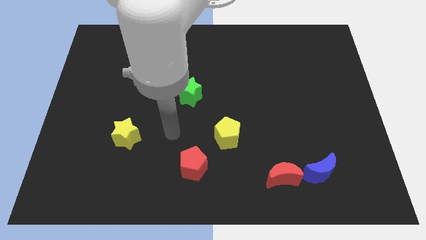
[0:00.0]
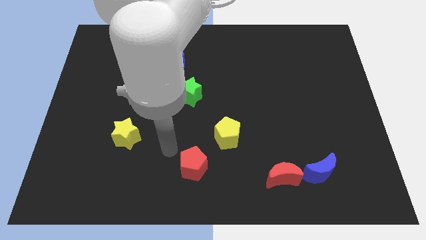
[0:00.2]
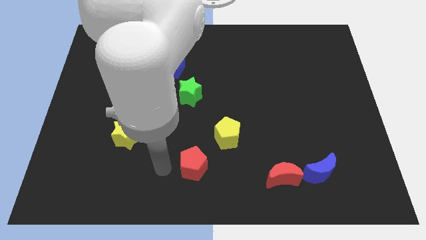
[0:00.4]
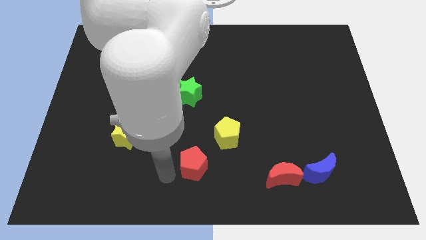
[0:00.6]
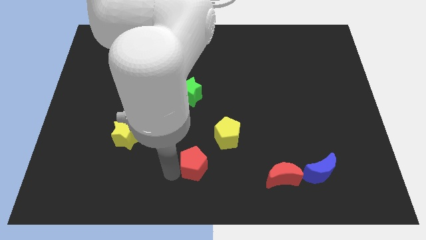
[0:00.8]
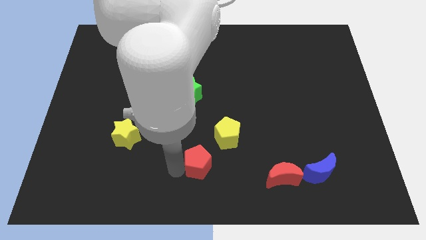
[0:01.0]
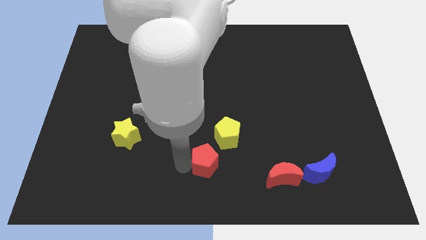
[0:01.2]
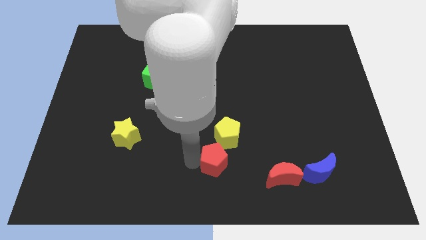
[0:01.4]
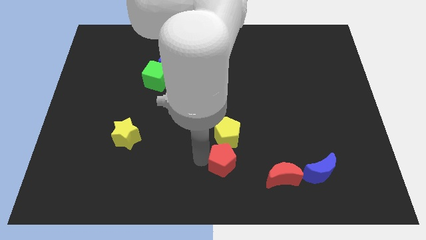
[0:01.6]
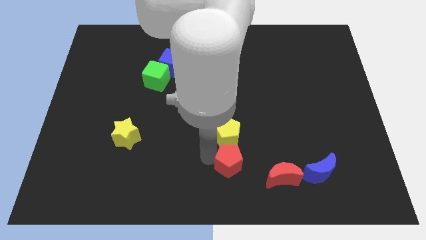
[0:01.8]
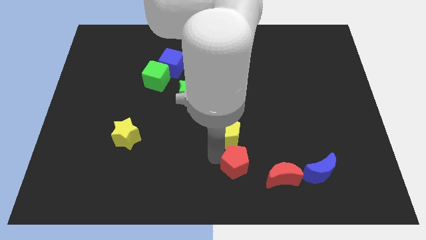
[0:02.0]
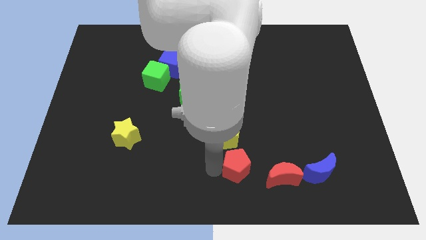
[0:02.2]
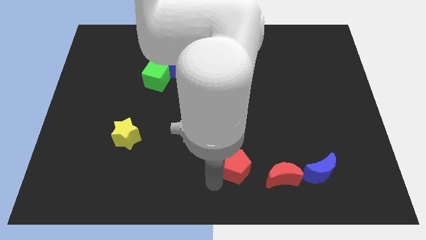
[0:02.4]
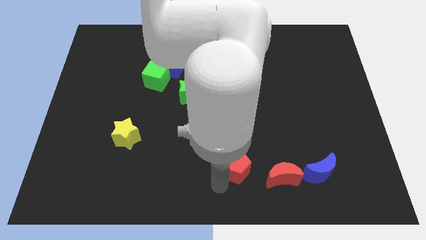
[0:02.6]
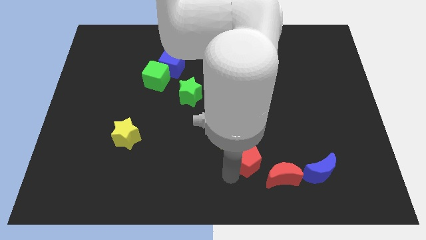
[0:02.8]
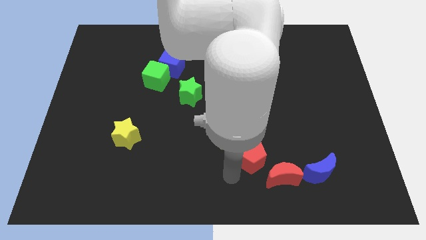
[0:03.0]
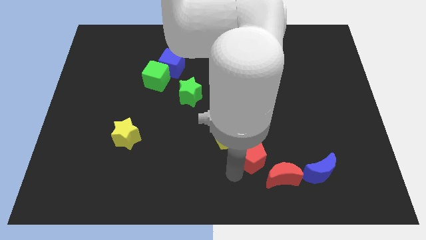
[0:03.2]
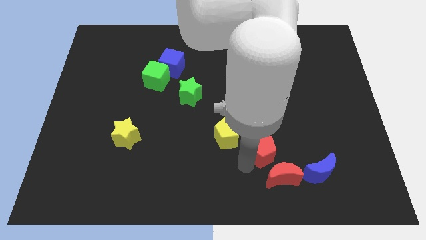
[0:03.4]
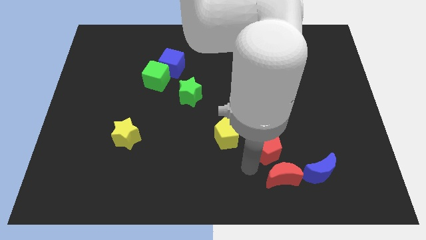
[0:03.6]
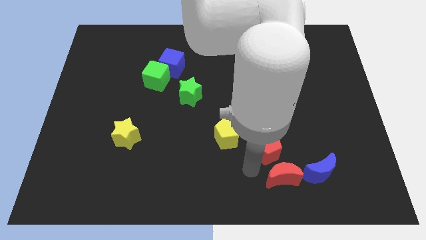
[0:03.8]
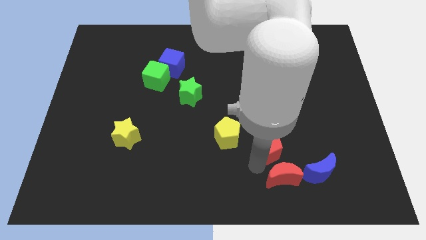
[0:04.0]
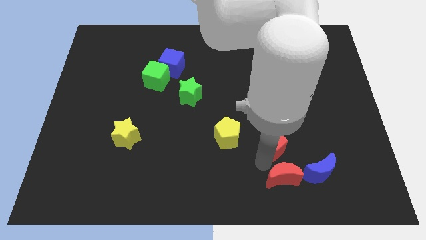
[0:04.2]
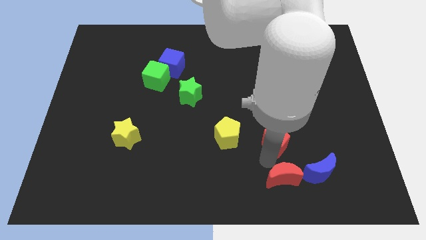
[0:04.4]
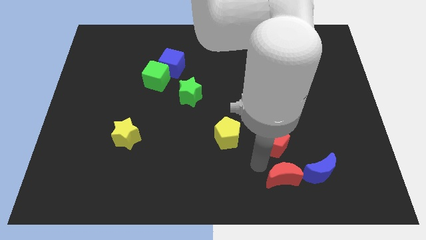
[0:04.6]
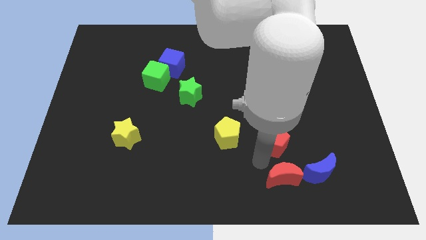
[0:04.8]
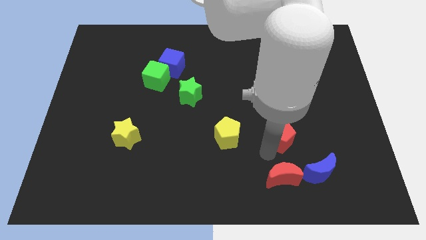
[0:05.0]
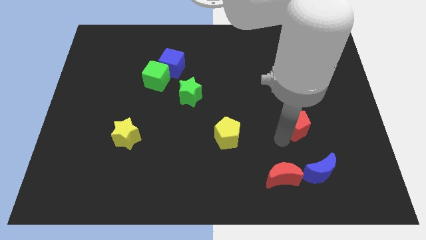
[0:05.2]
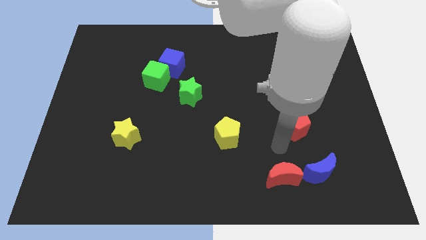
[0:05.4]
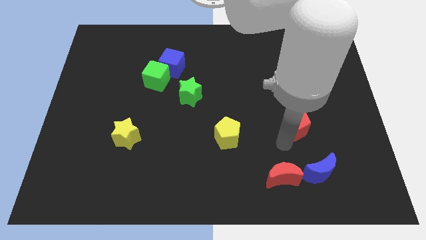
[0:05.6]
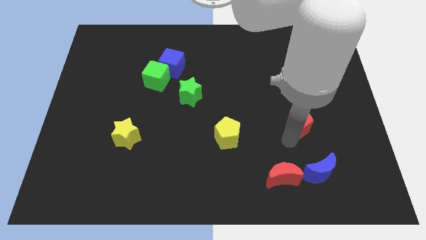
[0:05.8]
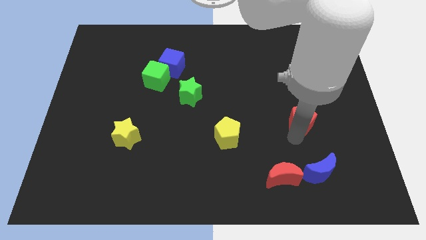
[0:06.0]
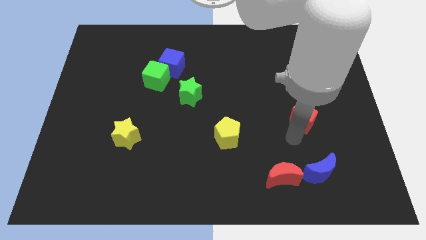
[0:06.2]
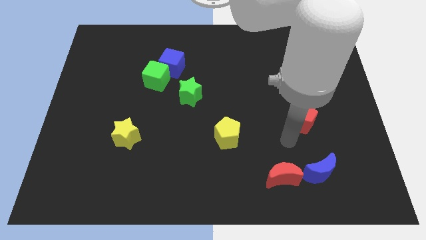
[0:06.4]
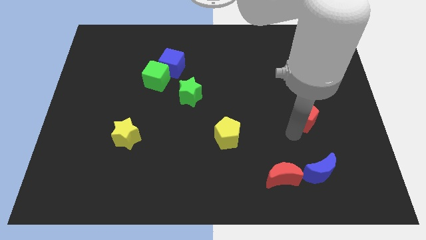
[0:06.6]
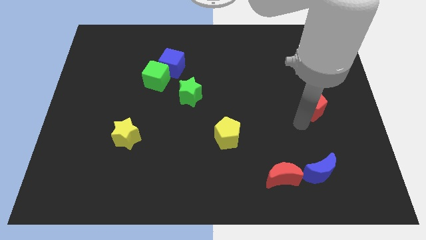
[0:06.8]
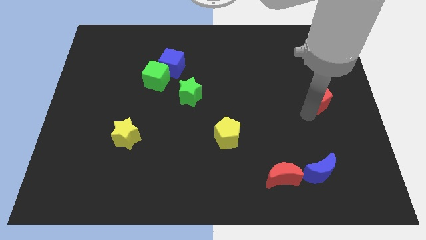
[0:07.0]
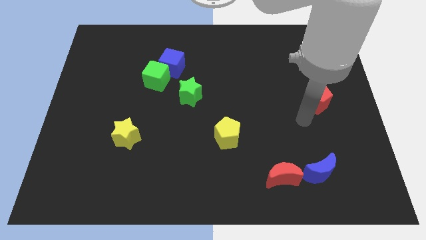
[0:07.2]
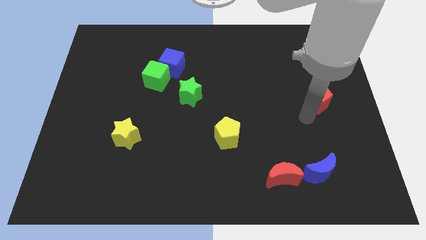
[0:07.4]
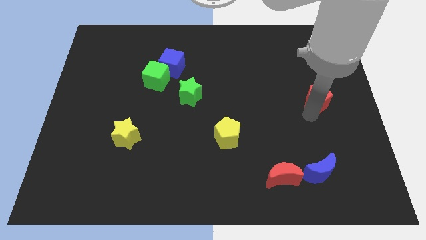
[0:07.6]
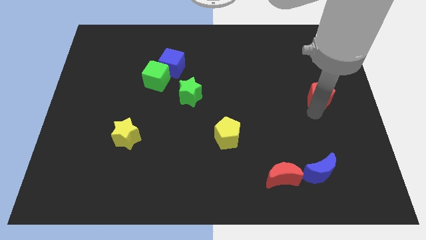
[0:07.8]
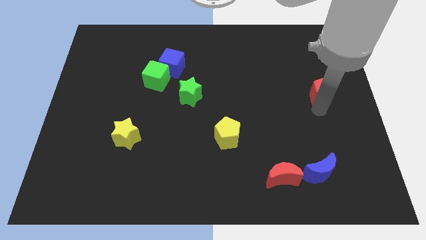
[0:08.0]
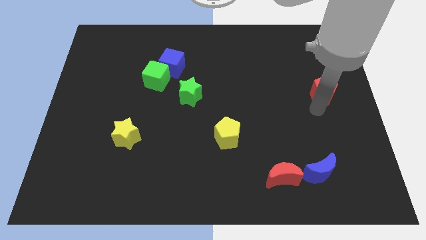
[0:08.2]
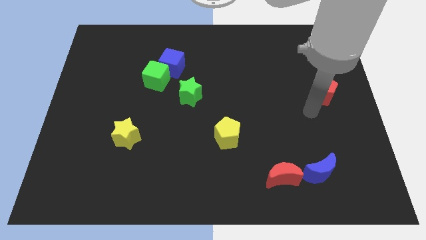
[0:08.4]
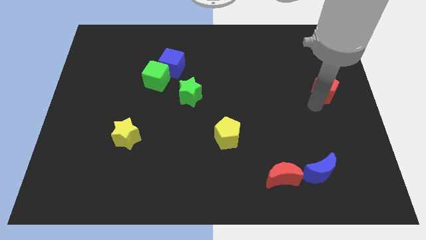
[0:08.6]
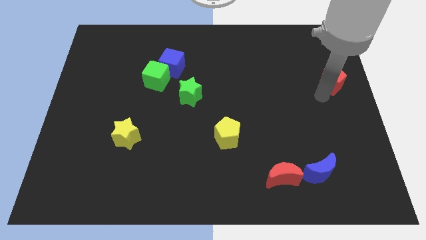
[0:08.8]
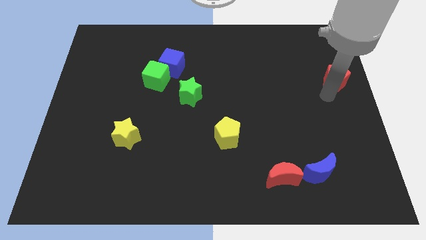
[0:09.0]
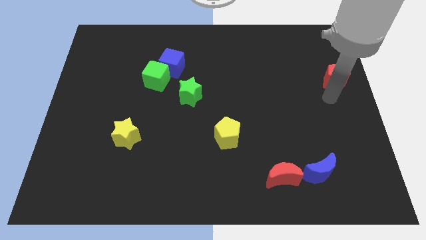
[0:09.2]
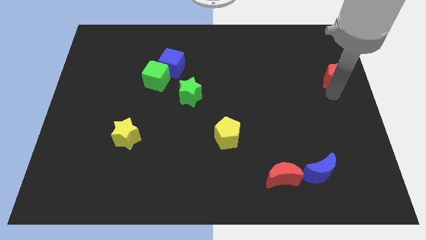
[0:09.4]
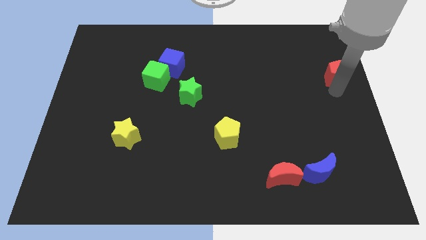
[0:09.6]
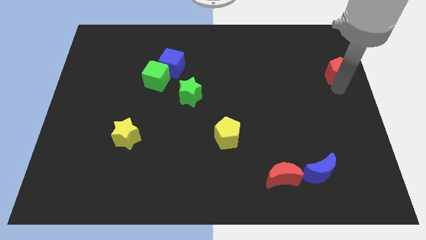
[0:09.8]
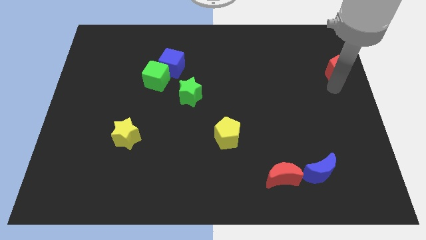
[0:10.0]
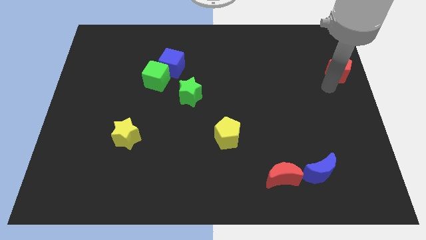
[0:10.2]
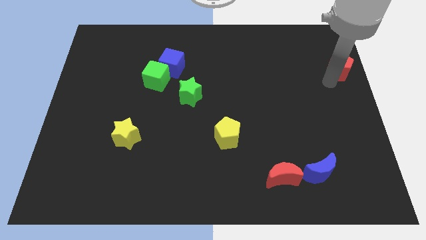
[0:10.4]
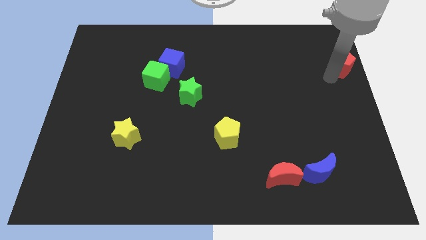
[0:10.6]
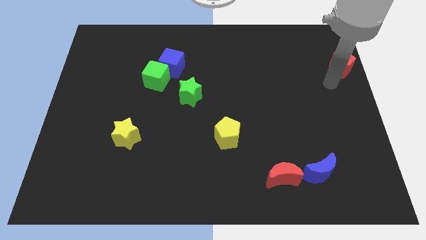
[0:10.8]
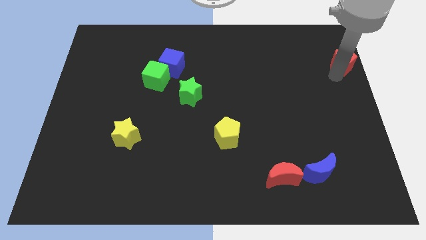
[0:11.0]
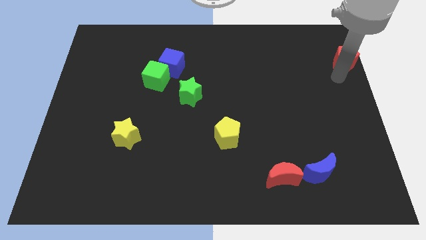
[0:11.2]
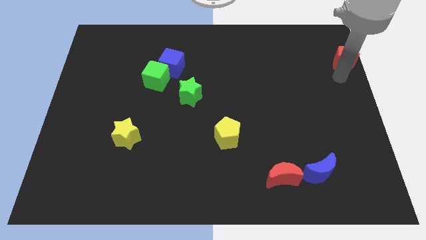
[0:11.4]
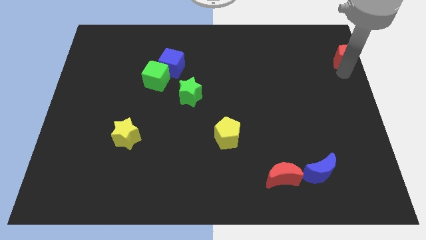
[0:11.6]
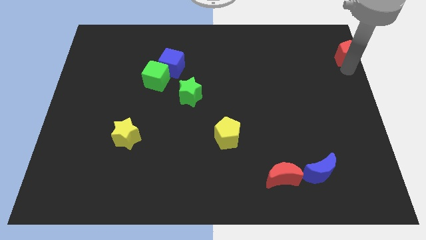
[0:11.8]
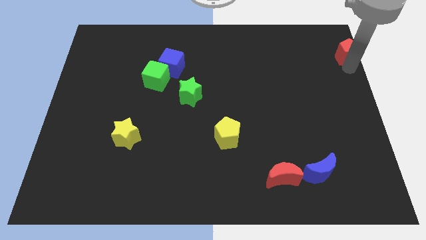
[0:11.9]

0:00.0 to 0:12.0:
move the red pentagon to the top right of the board
